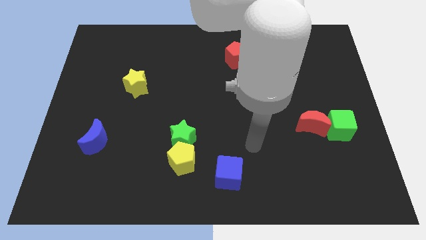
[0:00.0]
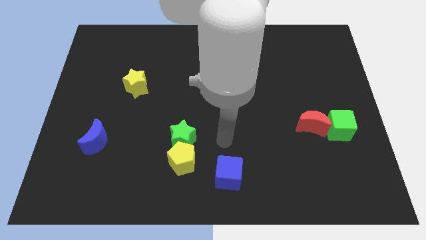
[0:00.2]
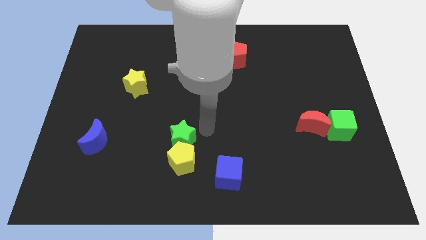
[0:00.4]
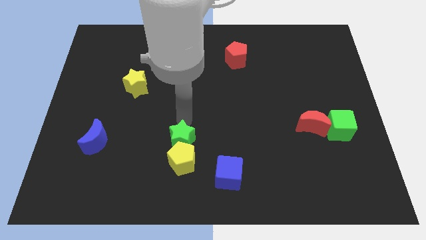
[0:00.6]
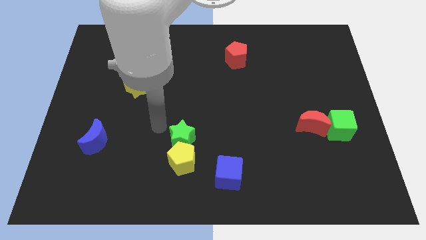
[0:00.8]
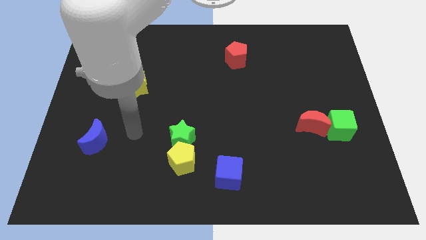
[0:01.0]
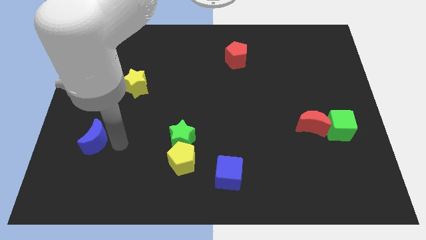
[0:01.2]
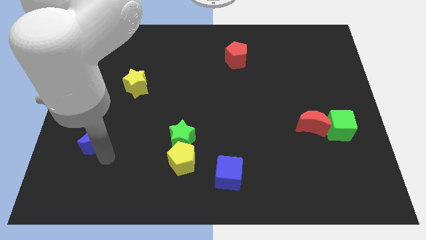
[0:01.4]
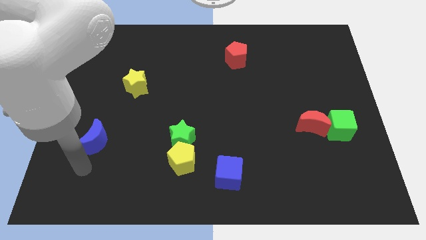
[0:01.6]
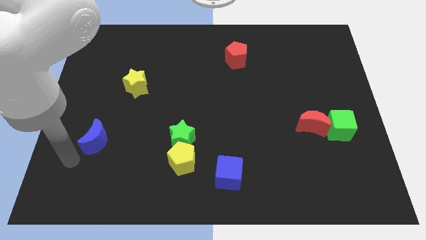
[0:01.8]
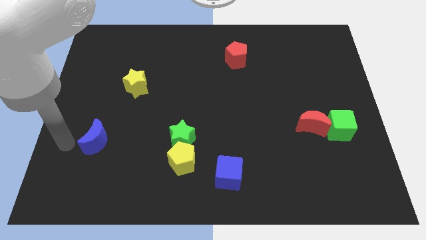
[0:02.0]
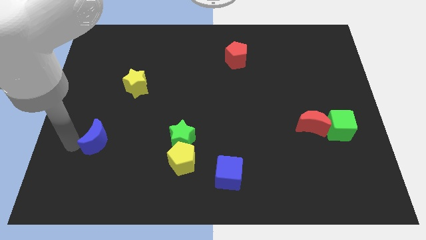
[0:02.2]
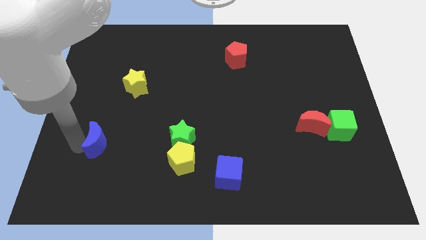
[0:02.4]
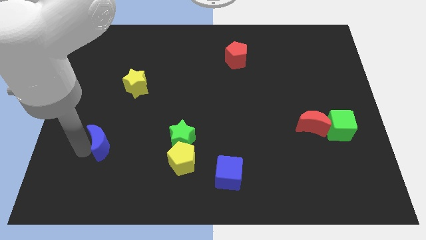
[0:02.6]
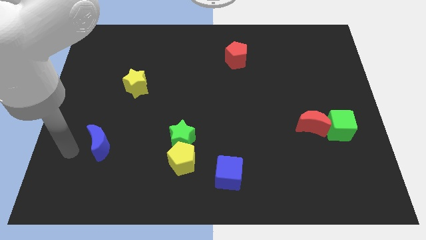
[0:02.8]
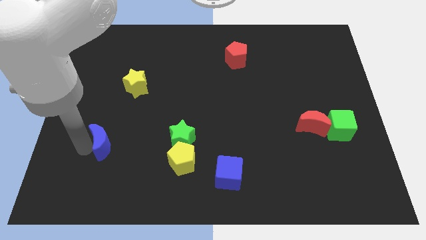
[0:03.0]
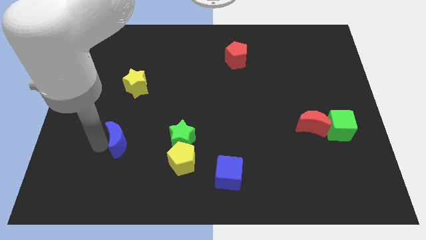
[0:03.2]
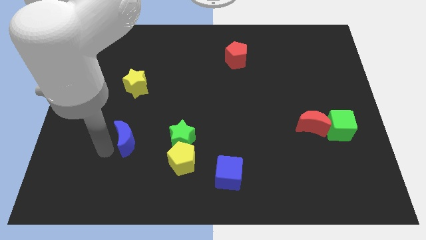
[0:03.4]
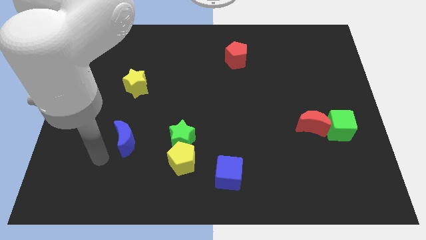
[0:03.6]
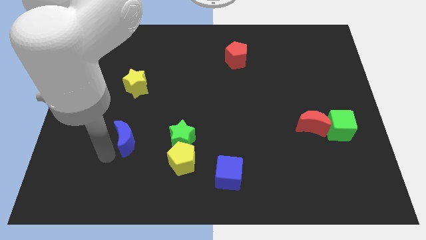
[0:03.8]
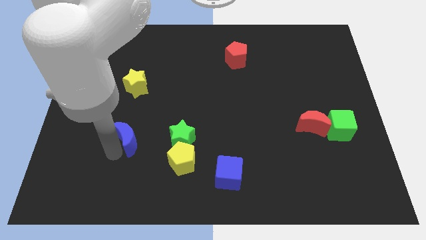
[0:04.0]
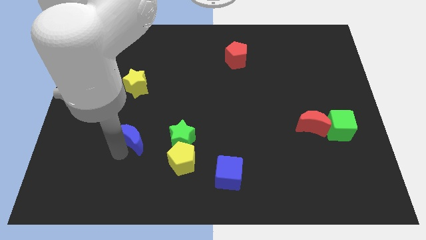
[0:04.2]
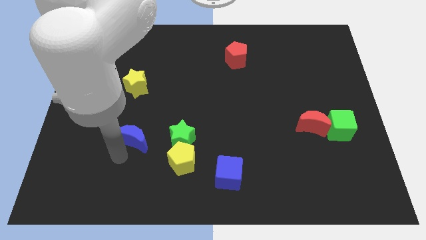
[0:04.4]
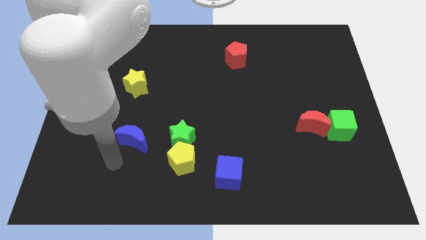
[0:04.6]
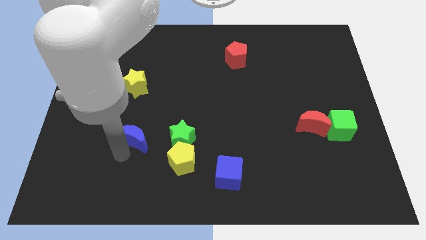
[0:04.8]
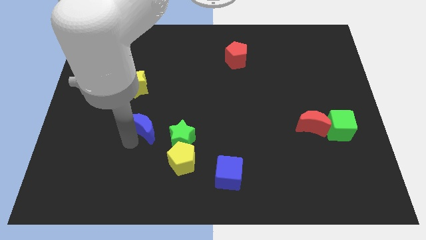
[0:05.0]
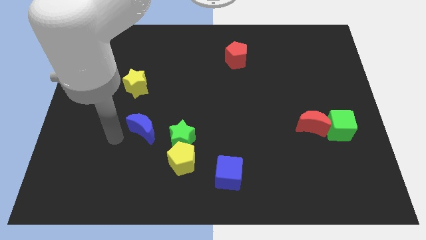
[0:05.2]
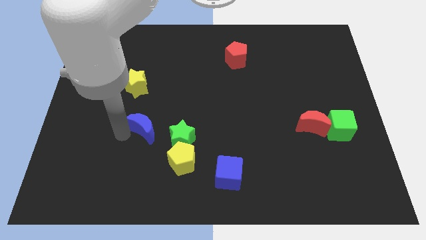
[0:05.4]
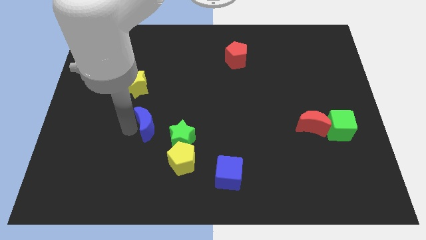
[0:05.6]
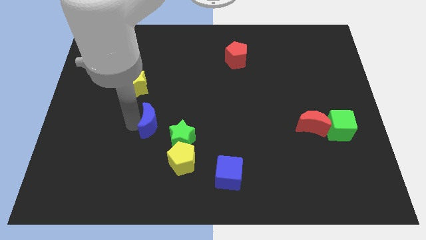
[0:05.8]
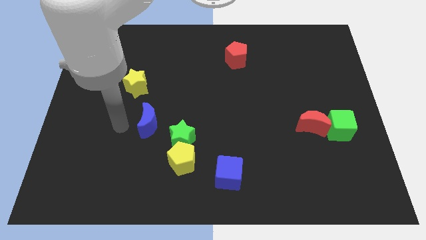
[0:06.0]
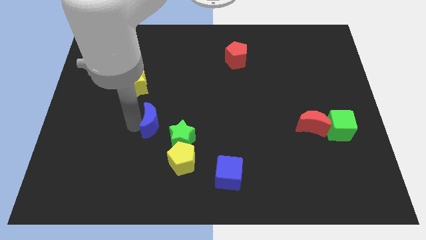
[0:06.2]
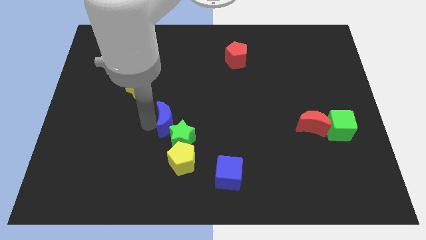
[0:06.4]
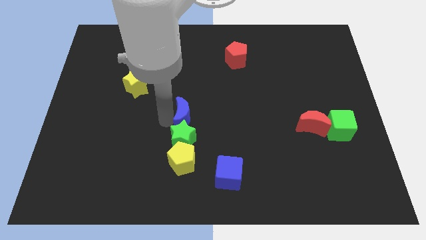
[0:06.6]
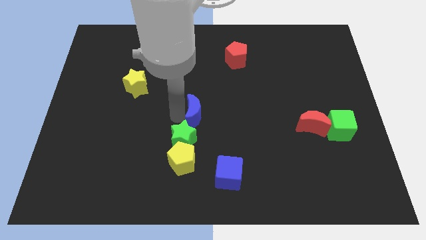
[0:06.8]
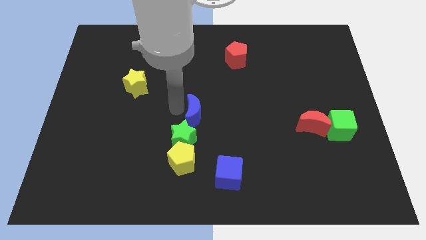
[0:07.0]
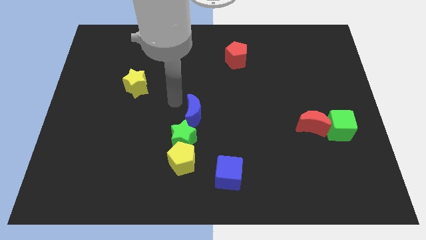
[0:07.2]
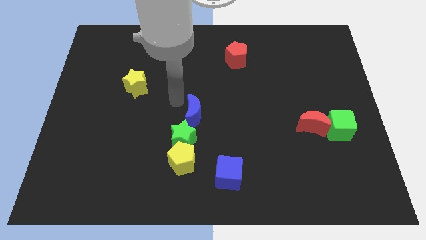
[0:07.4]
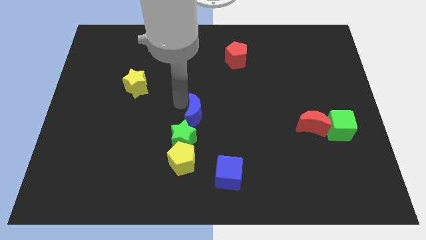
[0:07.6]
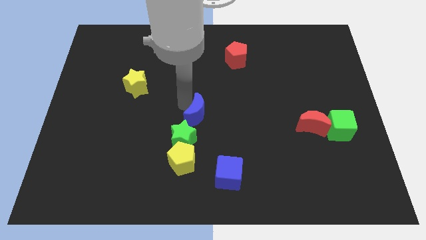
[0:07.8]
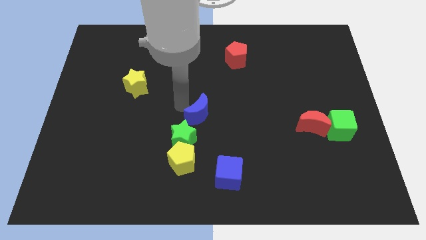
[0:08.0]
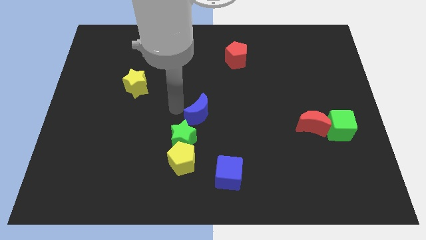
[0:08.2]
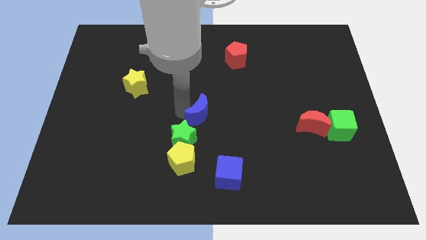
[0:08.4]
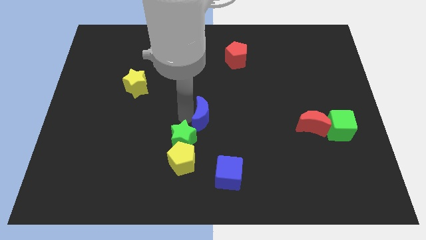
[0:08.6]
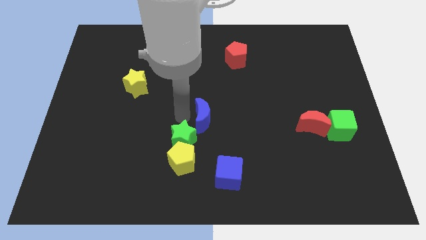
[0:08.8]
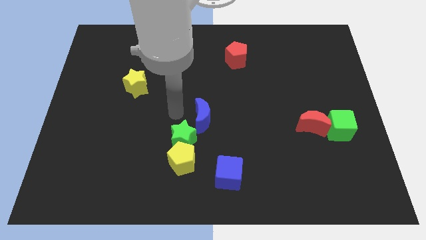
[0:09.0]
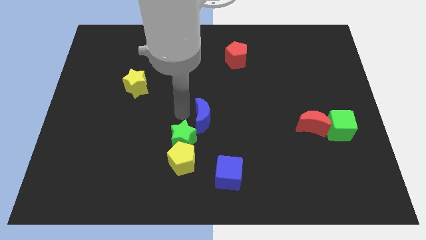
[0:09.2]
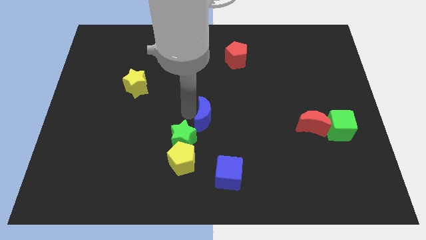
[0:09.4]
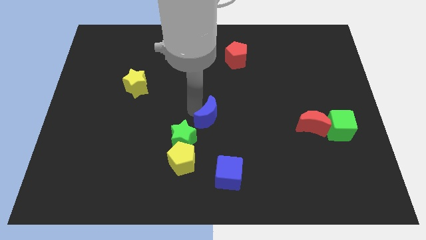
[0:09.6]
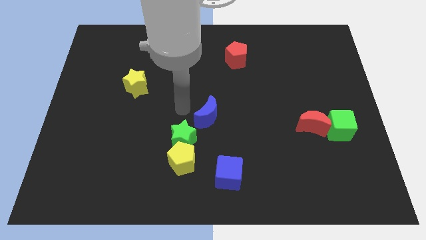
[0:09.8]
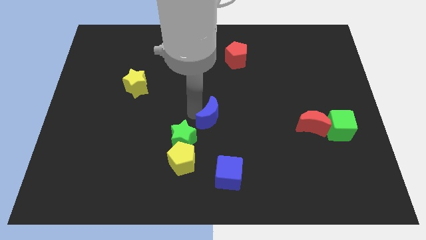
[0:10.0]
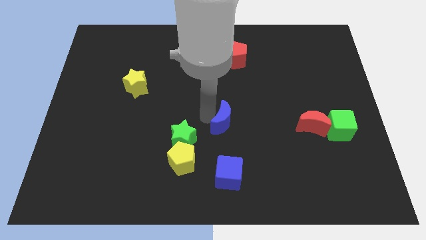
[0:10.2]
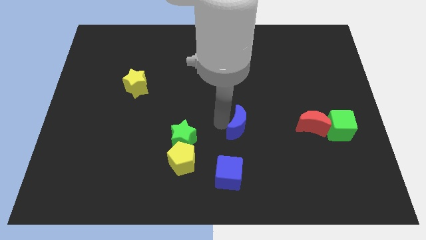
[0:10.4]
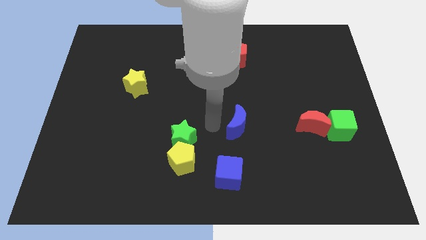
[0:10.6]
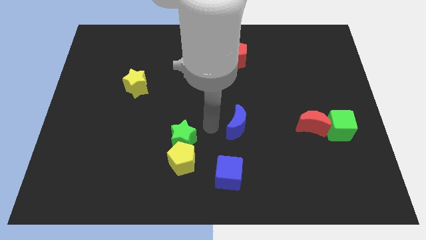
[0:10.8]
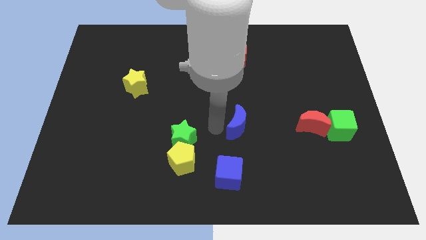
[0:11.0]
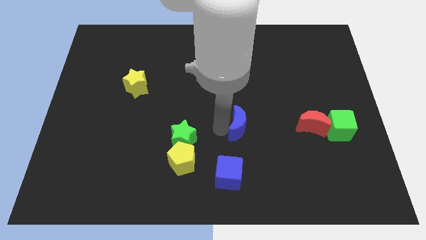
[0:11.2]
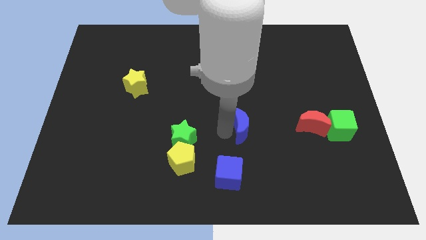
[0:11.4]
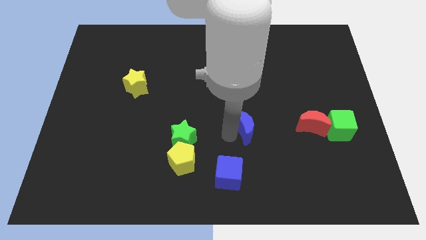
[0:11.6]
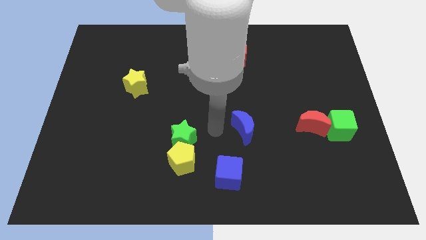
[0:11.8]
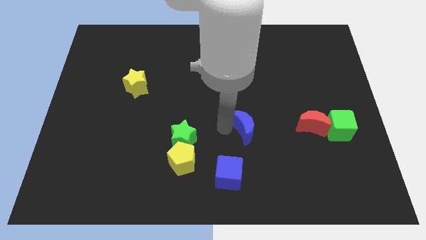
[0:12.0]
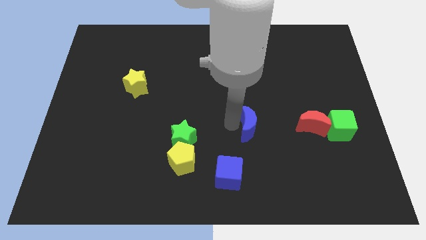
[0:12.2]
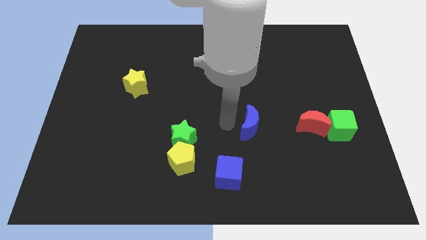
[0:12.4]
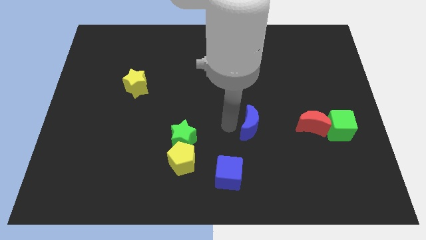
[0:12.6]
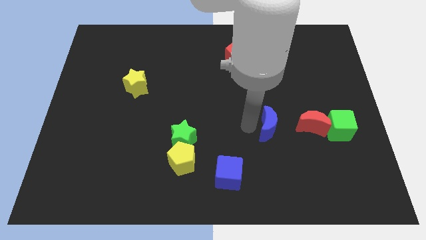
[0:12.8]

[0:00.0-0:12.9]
push the blue moon just left of the green cube
